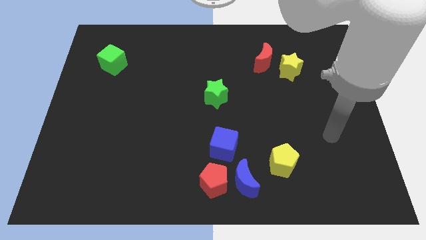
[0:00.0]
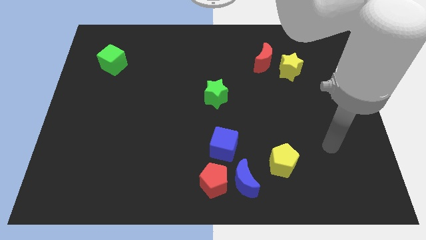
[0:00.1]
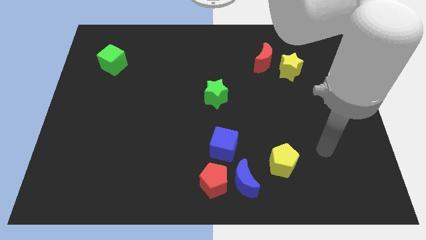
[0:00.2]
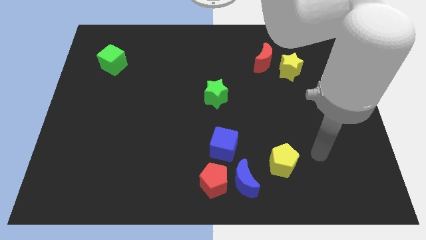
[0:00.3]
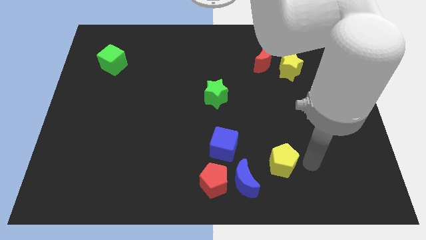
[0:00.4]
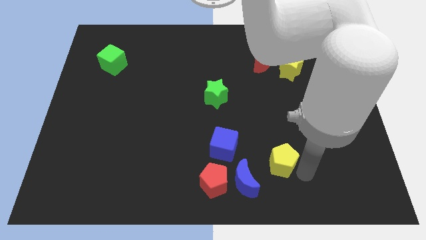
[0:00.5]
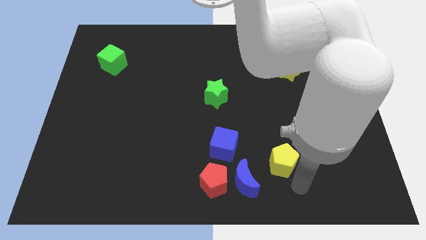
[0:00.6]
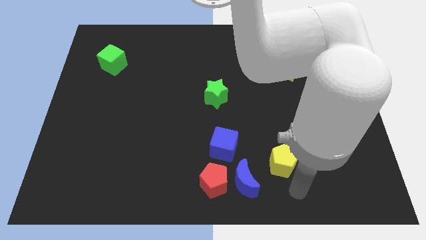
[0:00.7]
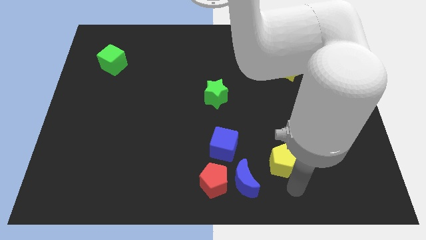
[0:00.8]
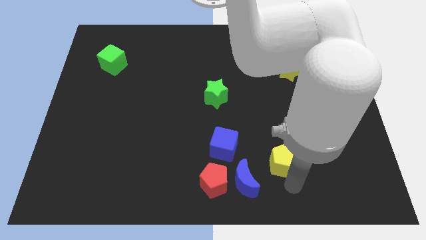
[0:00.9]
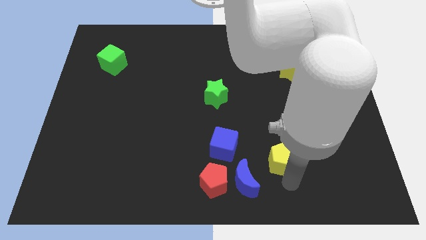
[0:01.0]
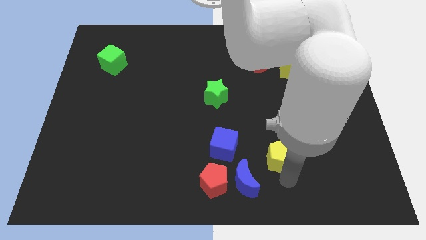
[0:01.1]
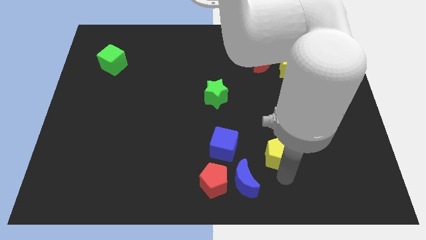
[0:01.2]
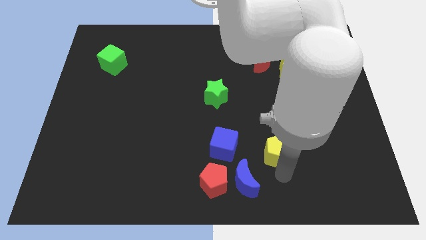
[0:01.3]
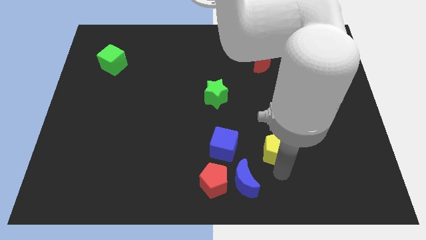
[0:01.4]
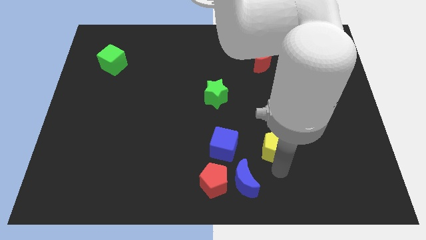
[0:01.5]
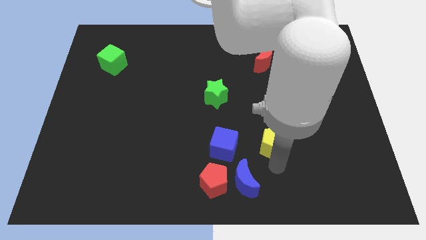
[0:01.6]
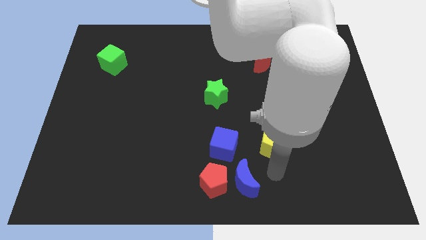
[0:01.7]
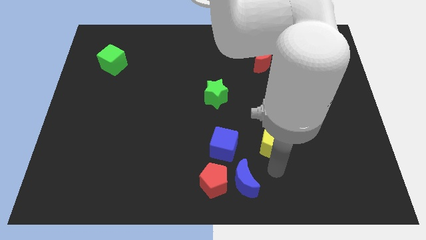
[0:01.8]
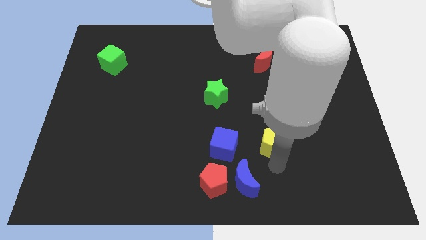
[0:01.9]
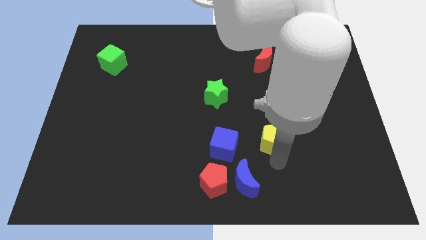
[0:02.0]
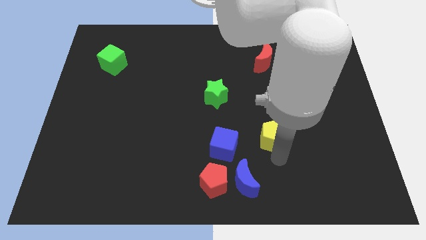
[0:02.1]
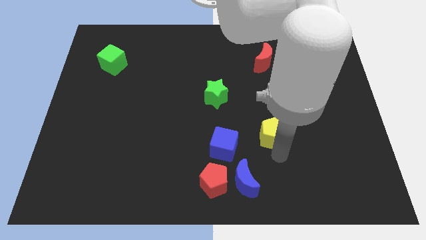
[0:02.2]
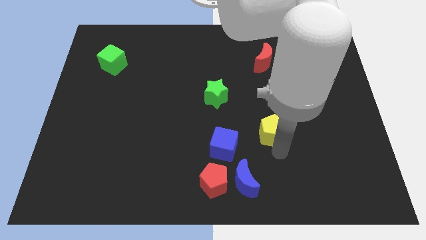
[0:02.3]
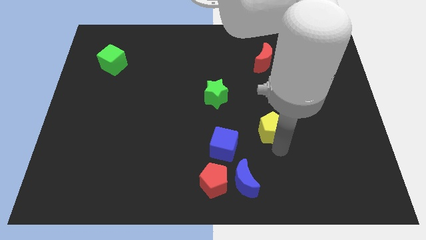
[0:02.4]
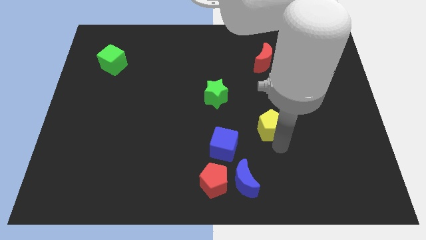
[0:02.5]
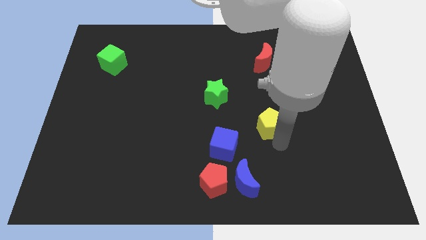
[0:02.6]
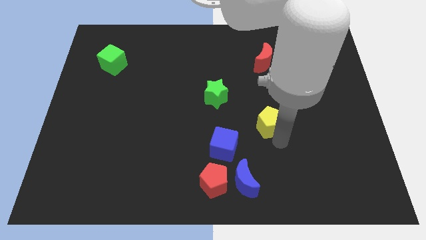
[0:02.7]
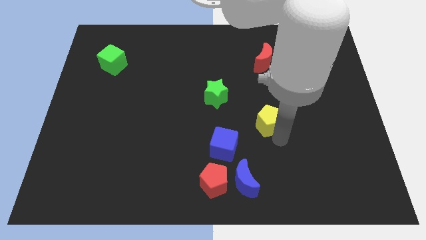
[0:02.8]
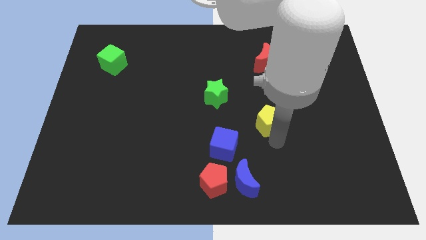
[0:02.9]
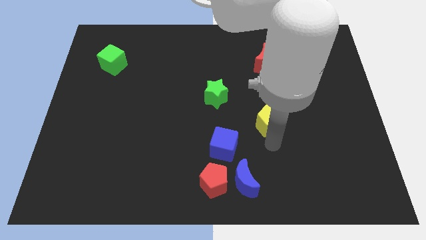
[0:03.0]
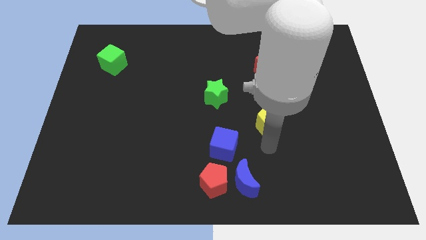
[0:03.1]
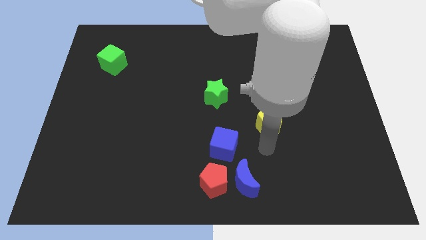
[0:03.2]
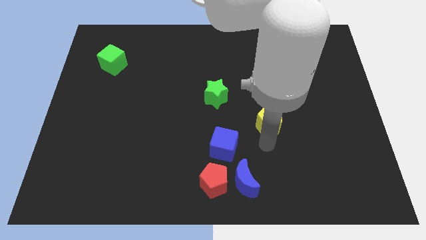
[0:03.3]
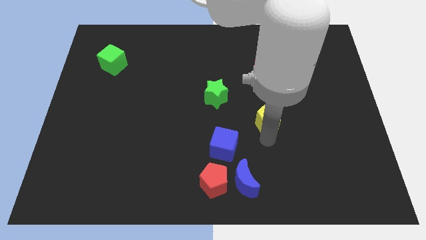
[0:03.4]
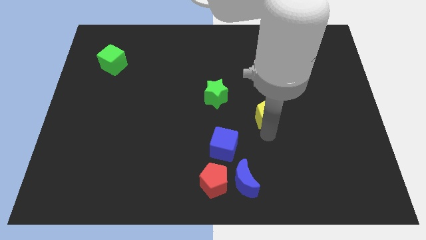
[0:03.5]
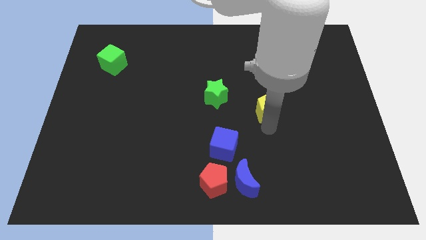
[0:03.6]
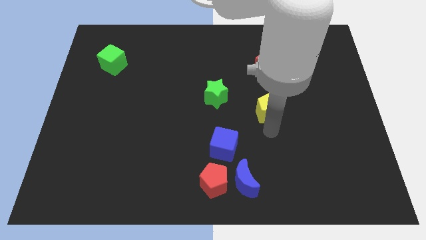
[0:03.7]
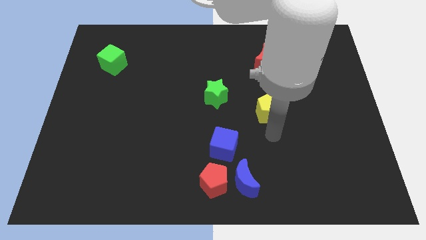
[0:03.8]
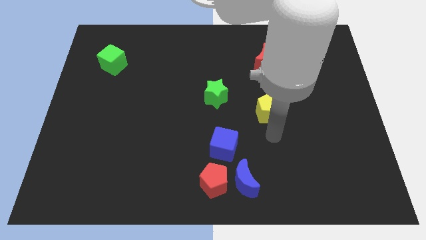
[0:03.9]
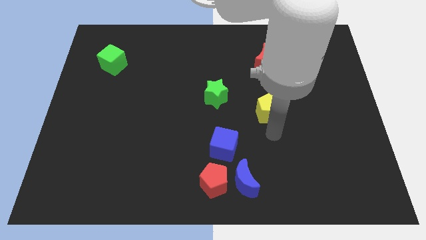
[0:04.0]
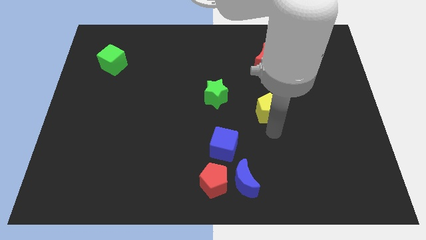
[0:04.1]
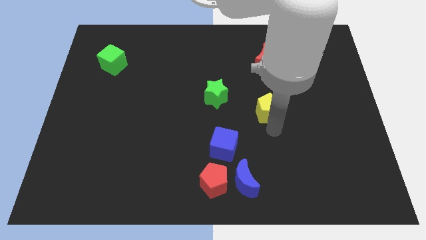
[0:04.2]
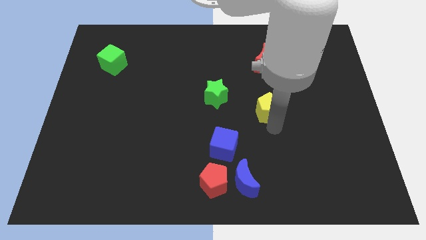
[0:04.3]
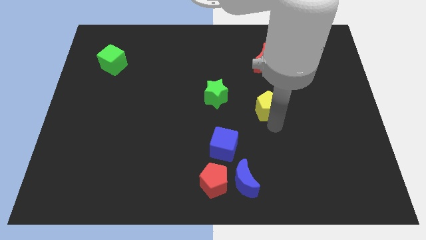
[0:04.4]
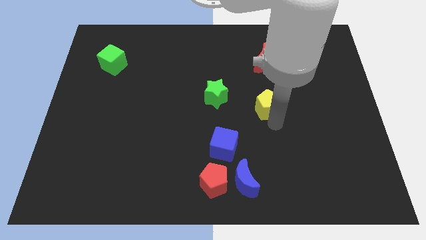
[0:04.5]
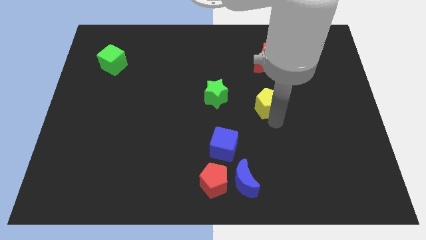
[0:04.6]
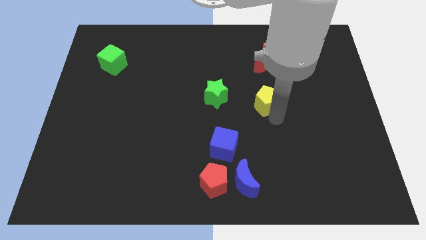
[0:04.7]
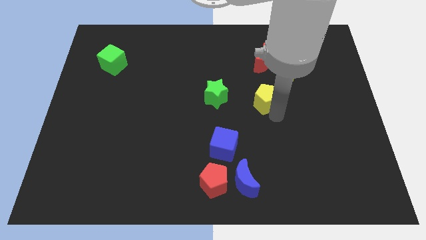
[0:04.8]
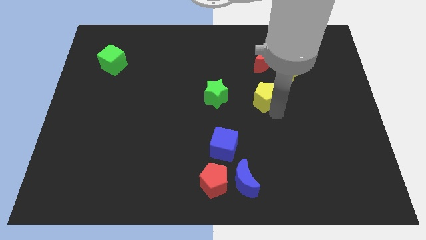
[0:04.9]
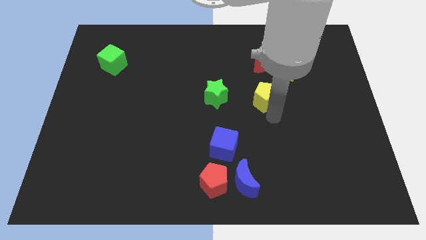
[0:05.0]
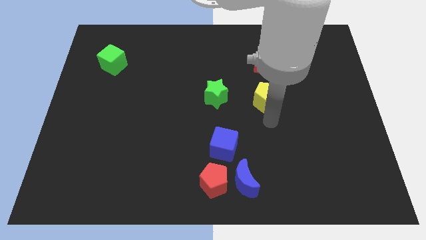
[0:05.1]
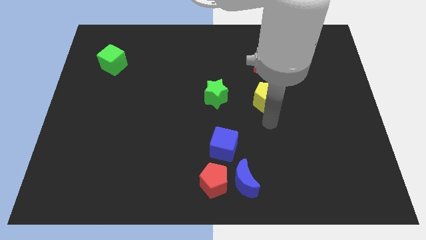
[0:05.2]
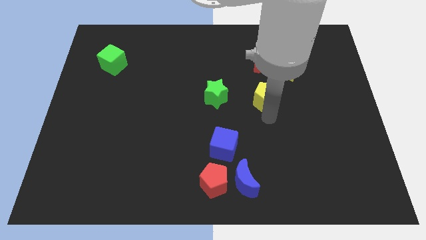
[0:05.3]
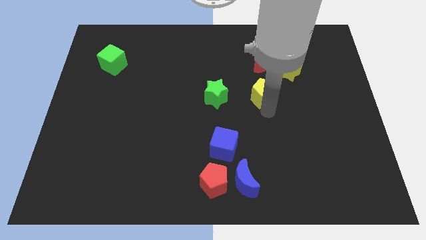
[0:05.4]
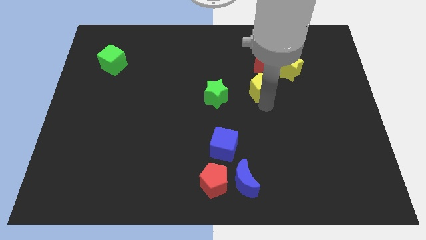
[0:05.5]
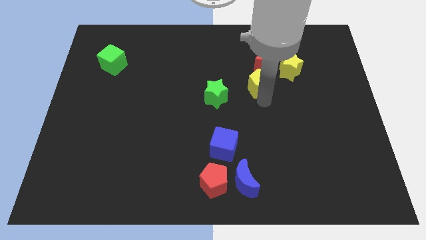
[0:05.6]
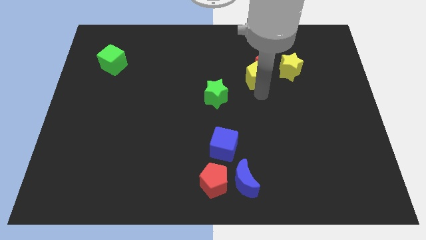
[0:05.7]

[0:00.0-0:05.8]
move the yellow pentagon close to the red moon

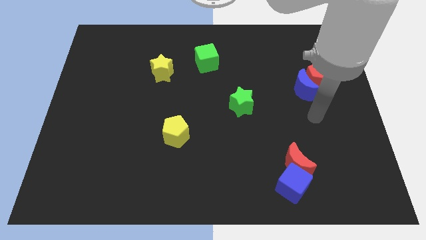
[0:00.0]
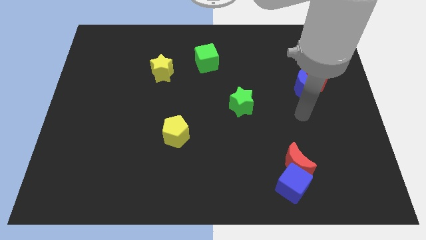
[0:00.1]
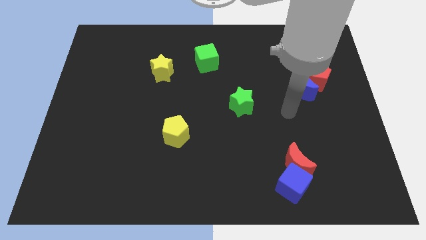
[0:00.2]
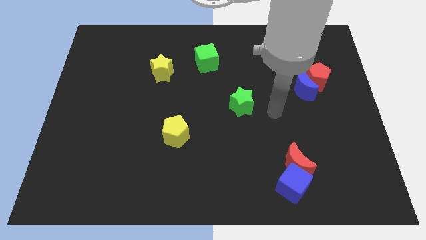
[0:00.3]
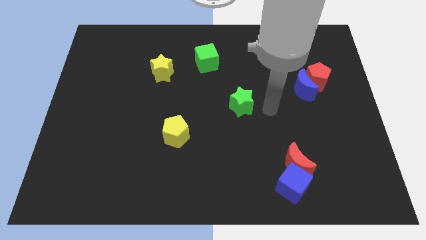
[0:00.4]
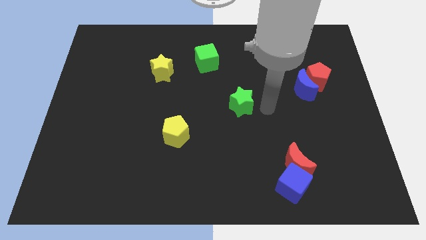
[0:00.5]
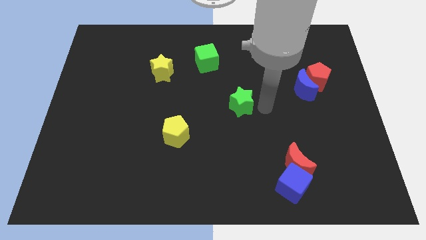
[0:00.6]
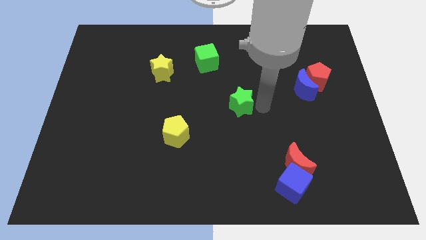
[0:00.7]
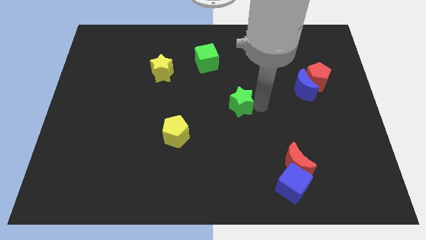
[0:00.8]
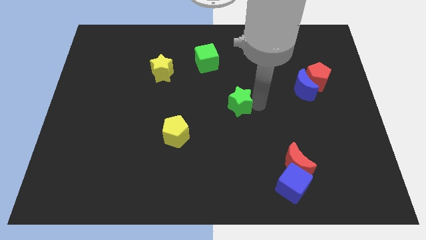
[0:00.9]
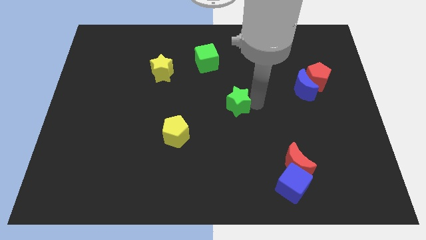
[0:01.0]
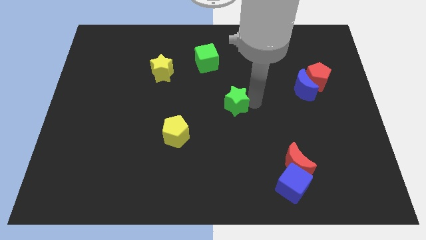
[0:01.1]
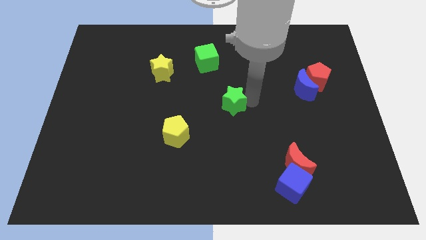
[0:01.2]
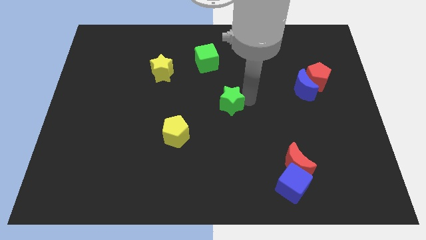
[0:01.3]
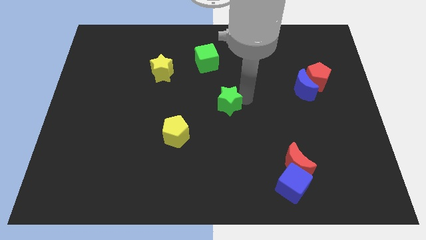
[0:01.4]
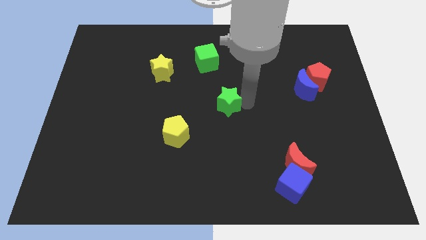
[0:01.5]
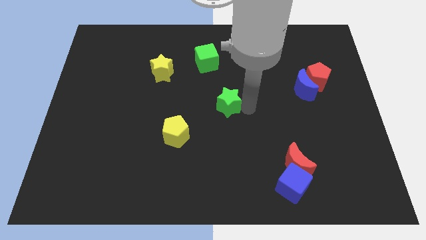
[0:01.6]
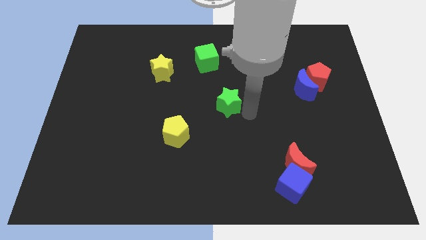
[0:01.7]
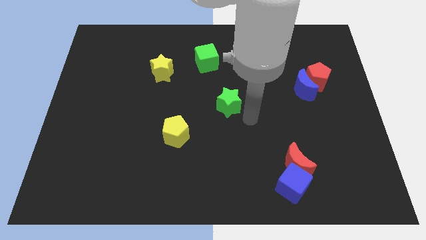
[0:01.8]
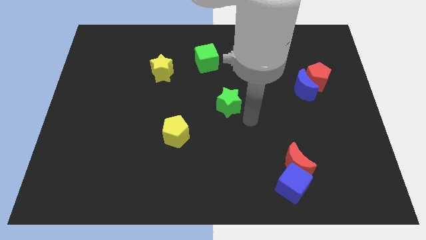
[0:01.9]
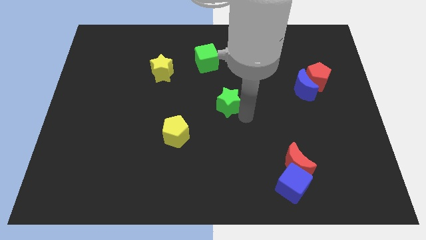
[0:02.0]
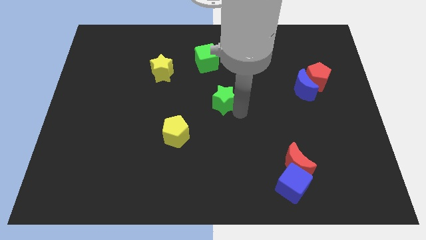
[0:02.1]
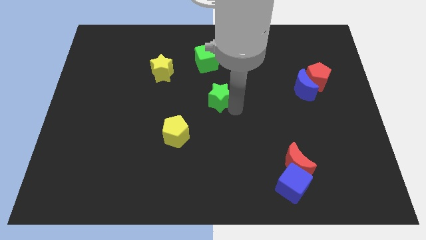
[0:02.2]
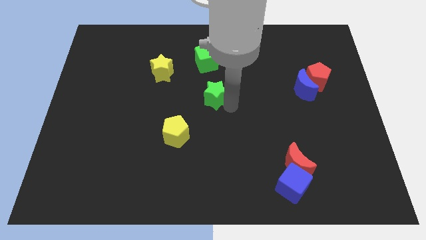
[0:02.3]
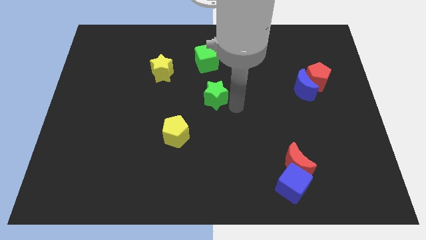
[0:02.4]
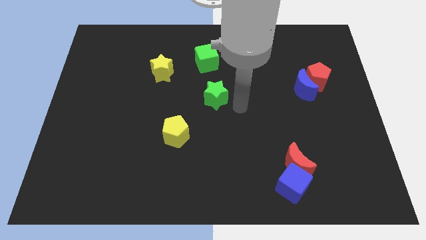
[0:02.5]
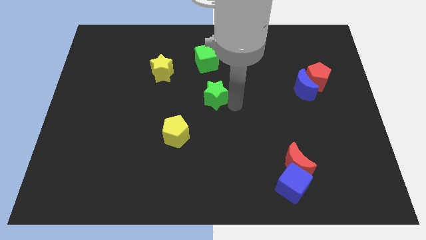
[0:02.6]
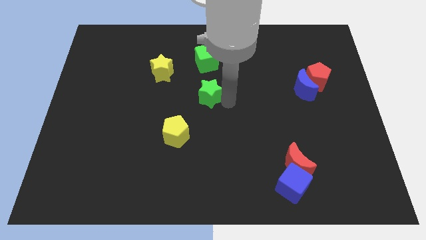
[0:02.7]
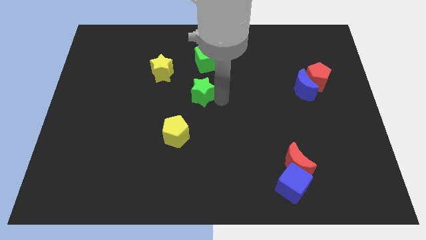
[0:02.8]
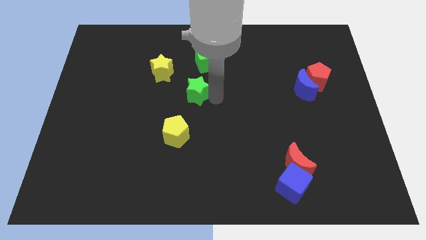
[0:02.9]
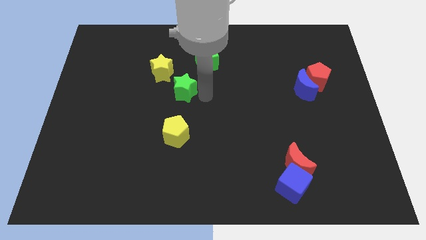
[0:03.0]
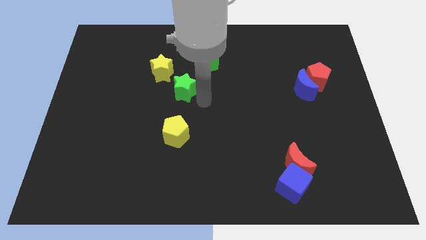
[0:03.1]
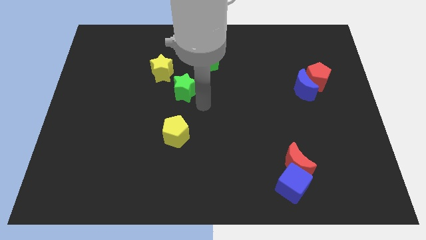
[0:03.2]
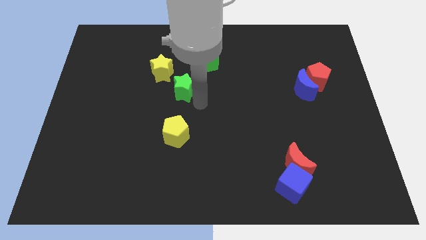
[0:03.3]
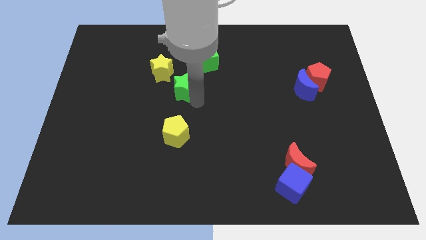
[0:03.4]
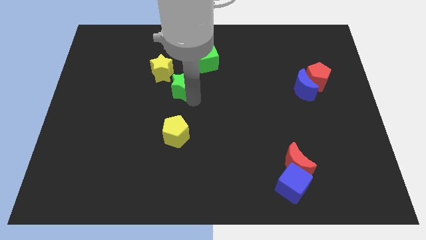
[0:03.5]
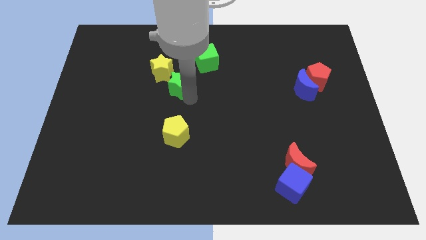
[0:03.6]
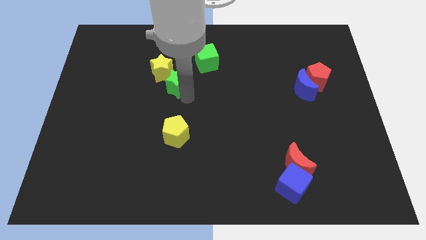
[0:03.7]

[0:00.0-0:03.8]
push the green star next to the yellow star
